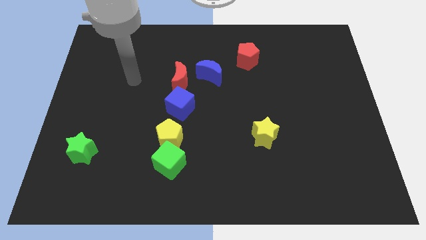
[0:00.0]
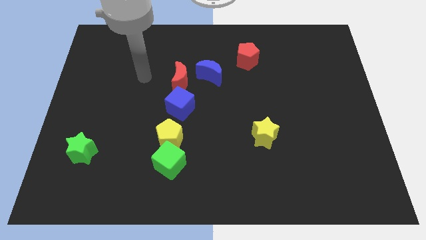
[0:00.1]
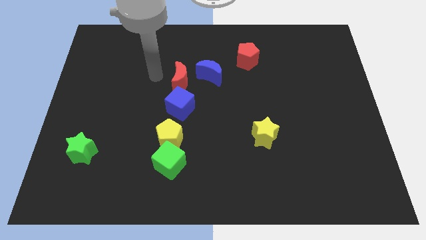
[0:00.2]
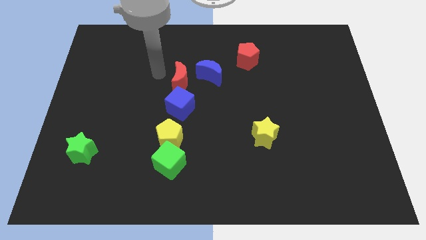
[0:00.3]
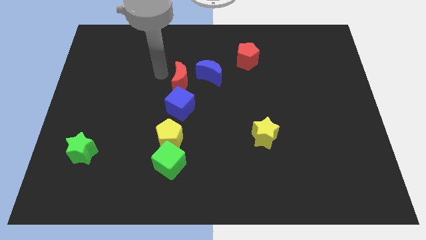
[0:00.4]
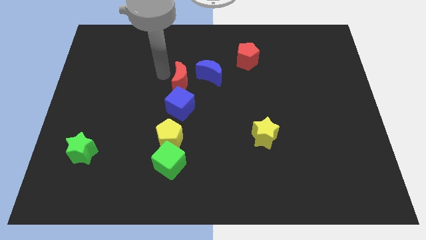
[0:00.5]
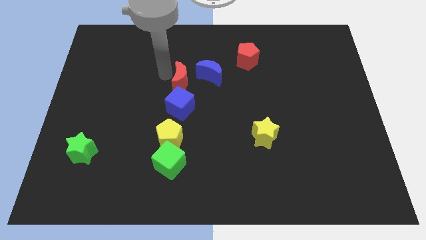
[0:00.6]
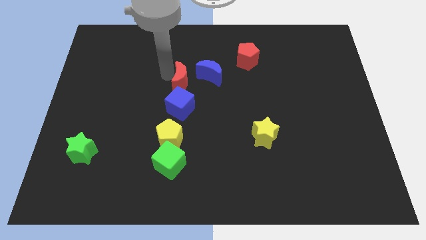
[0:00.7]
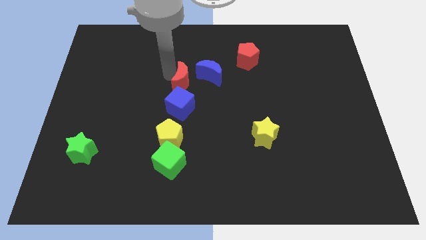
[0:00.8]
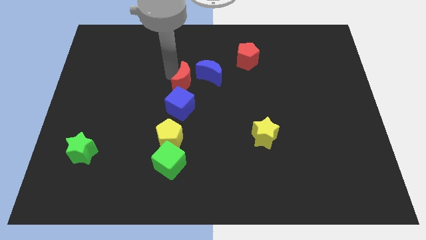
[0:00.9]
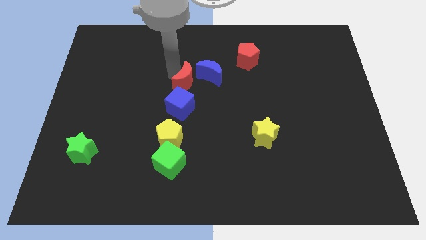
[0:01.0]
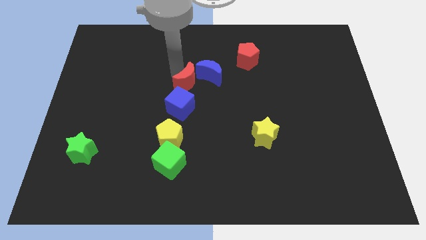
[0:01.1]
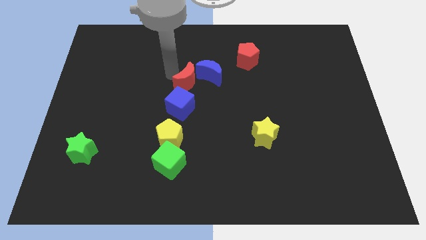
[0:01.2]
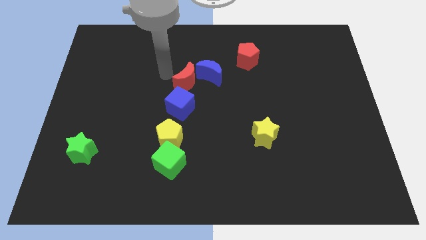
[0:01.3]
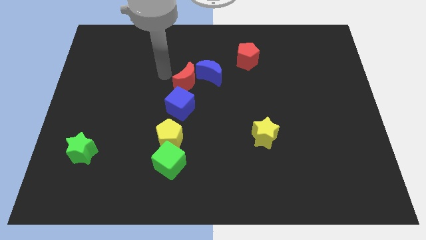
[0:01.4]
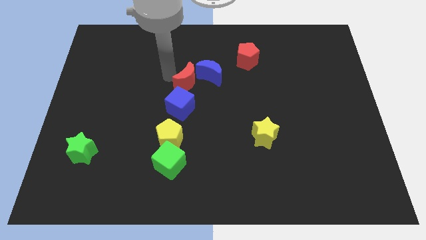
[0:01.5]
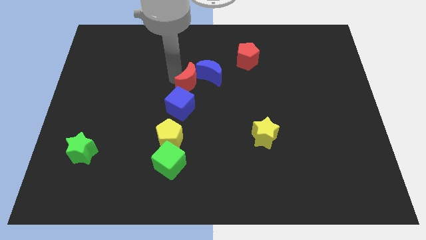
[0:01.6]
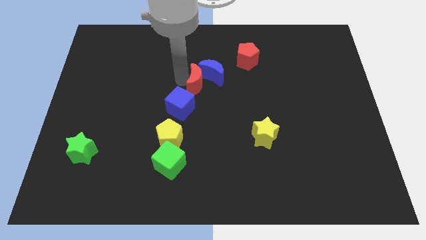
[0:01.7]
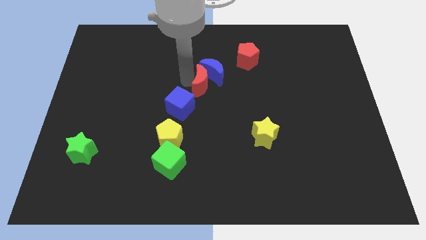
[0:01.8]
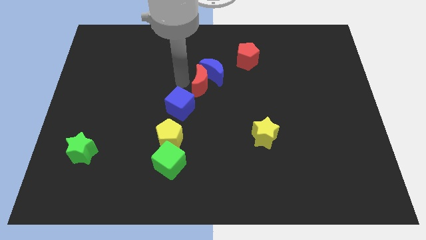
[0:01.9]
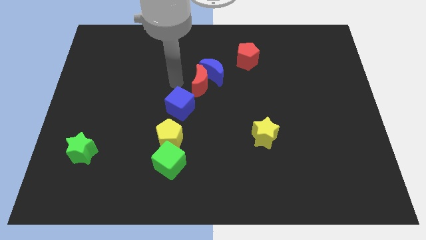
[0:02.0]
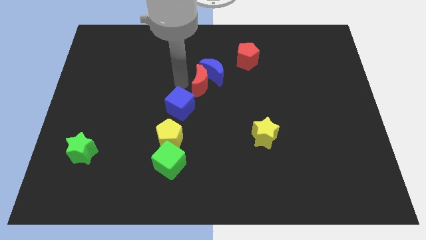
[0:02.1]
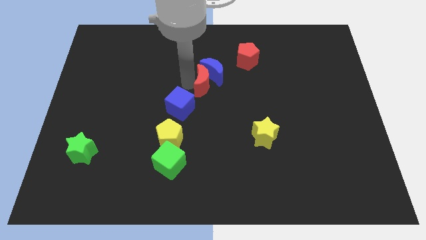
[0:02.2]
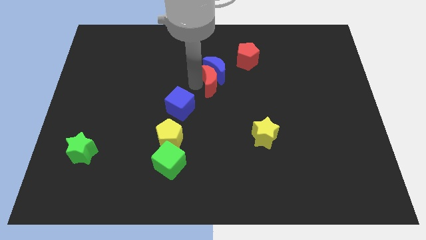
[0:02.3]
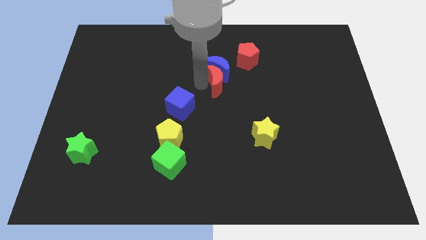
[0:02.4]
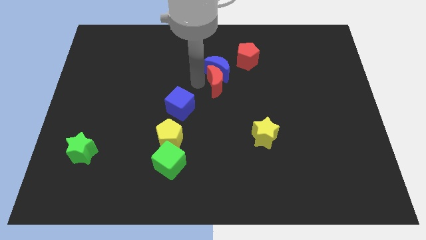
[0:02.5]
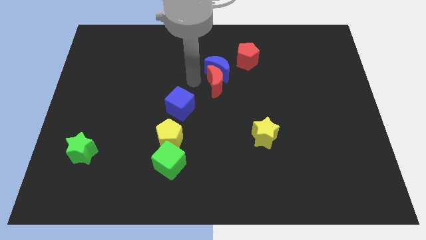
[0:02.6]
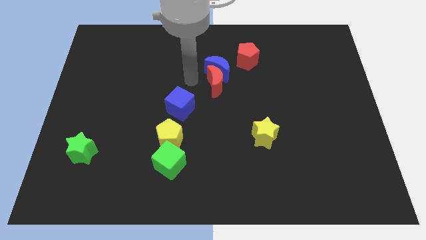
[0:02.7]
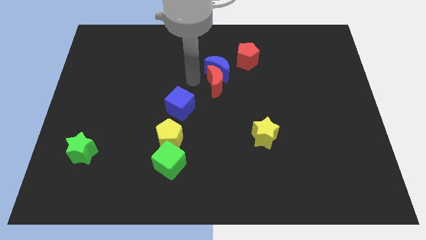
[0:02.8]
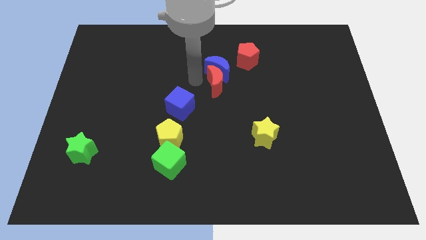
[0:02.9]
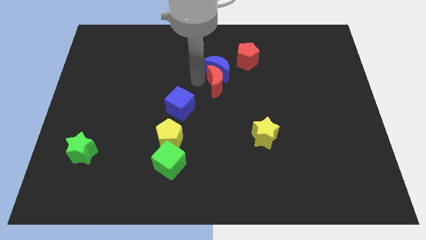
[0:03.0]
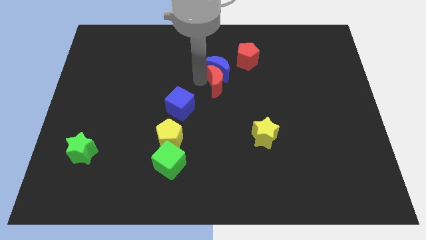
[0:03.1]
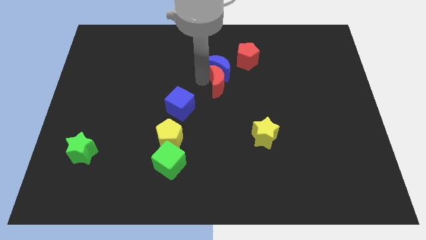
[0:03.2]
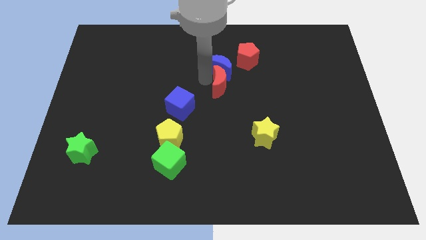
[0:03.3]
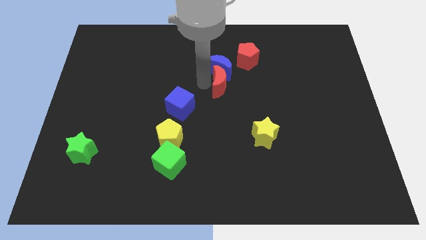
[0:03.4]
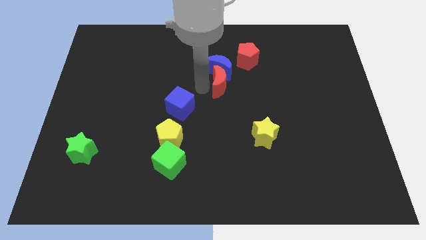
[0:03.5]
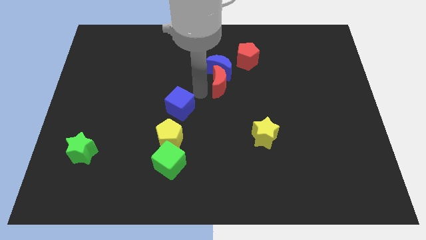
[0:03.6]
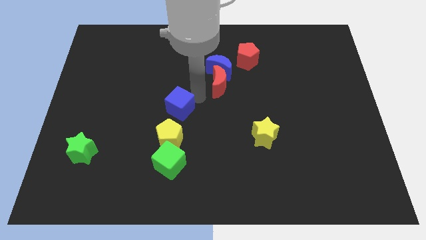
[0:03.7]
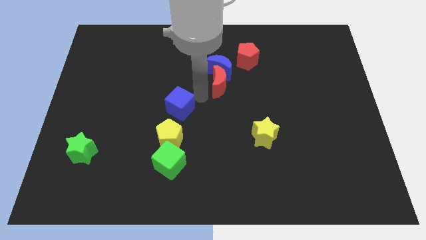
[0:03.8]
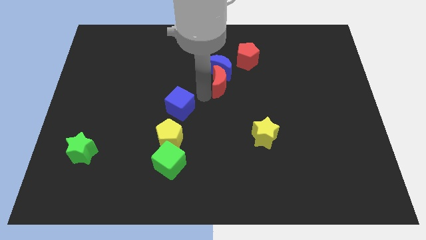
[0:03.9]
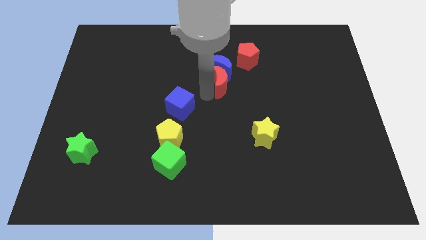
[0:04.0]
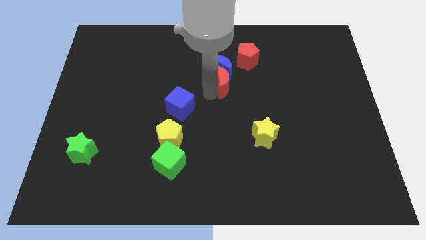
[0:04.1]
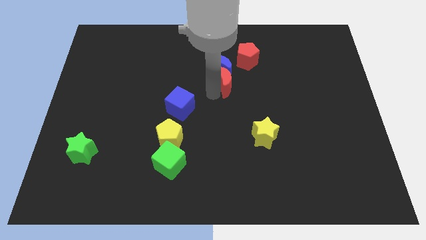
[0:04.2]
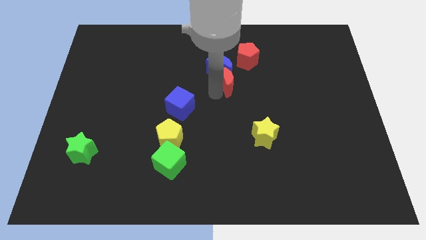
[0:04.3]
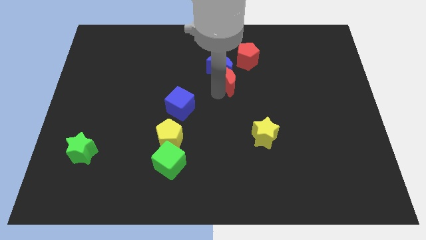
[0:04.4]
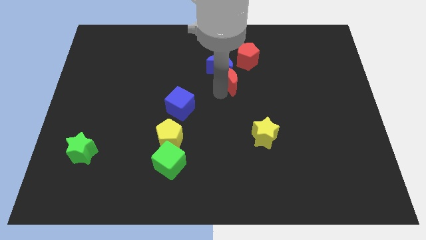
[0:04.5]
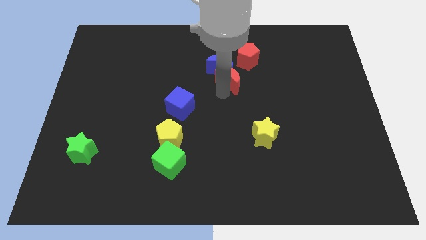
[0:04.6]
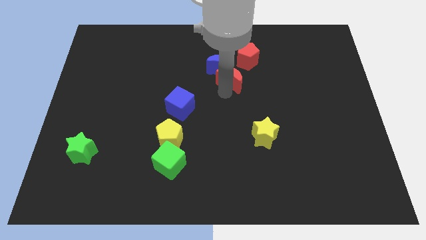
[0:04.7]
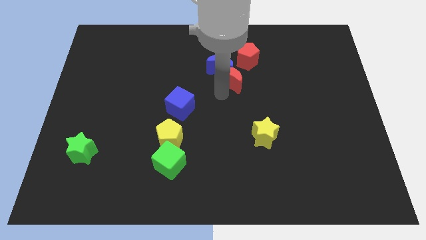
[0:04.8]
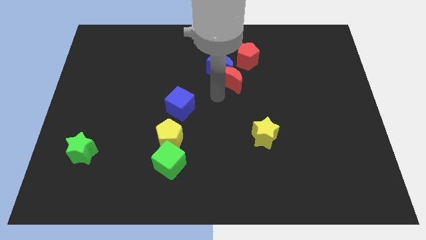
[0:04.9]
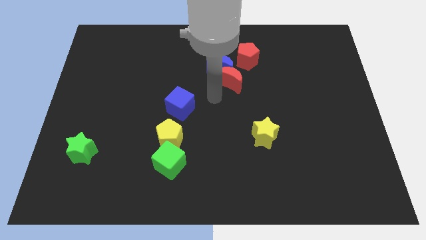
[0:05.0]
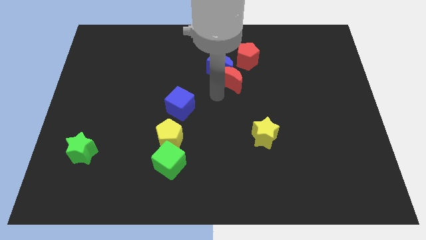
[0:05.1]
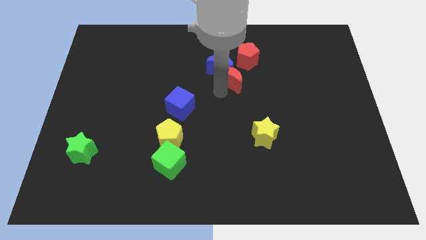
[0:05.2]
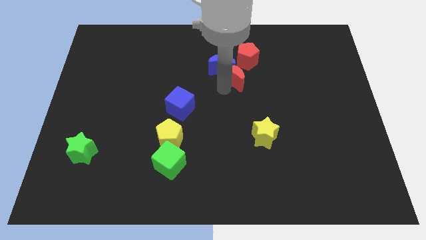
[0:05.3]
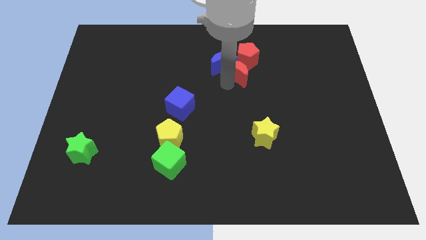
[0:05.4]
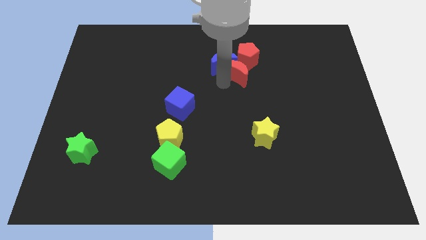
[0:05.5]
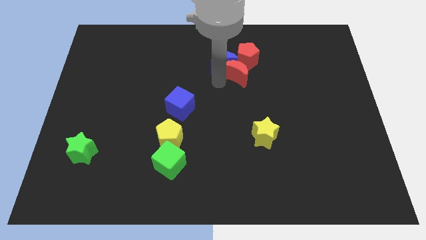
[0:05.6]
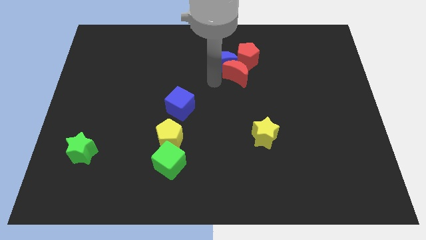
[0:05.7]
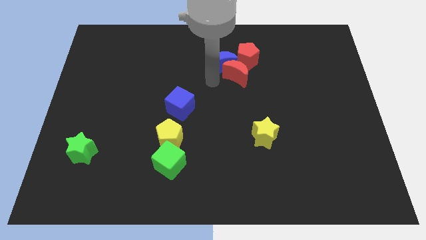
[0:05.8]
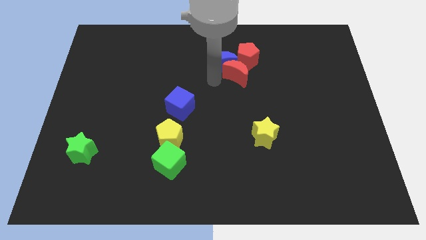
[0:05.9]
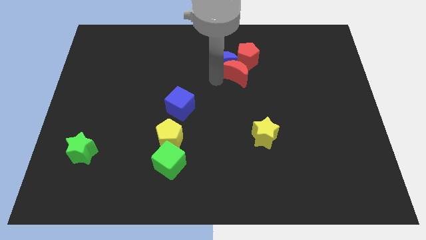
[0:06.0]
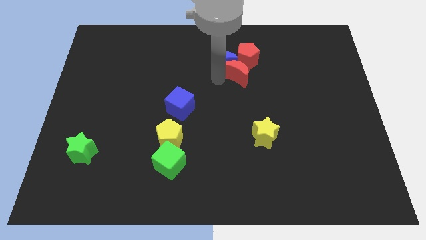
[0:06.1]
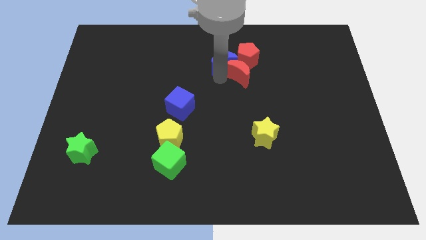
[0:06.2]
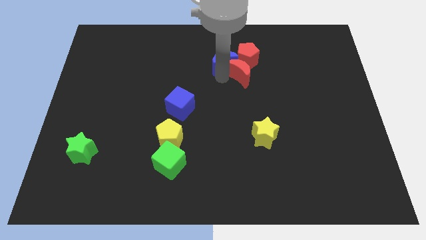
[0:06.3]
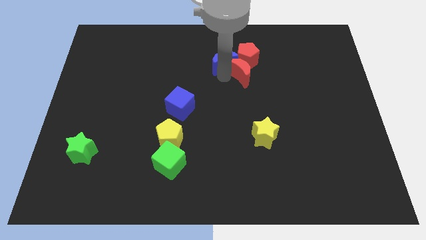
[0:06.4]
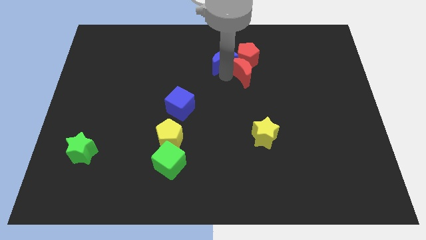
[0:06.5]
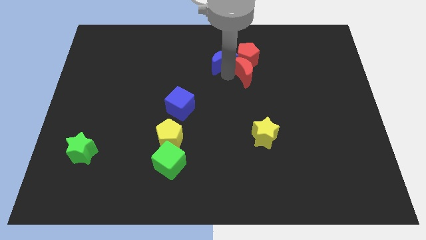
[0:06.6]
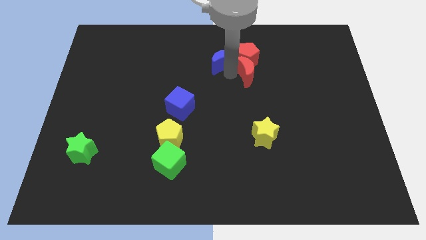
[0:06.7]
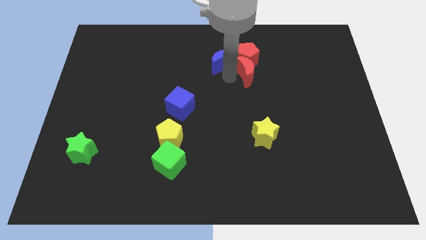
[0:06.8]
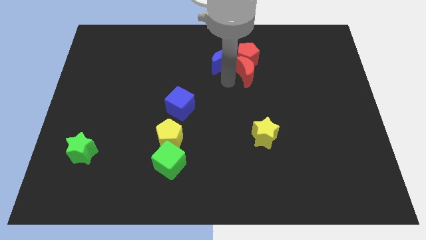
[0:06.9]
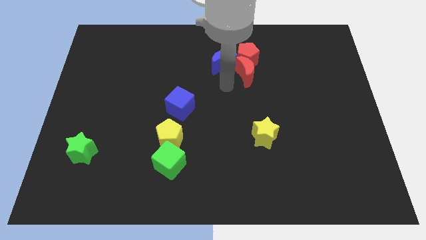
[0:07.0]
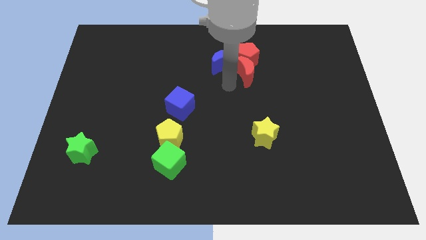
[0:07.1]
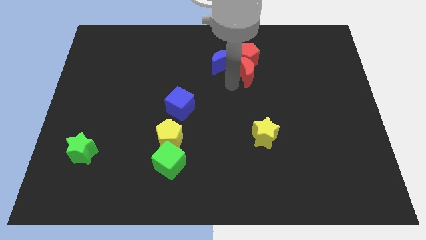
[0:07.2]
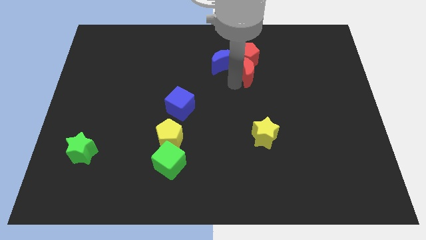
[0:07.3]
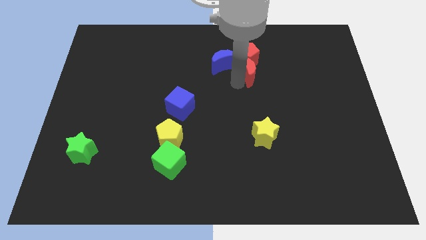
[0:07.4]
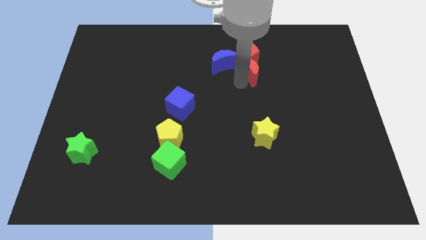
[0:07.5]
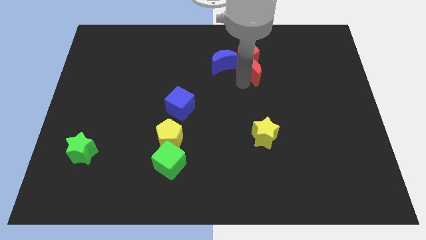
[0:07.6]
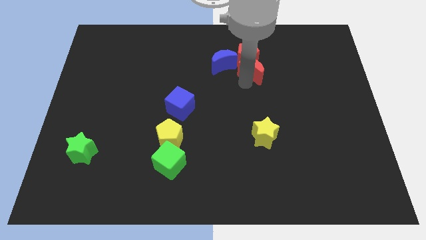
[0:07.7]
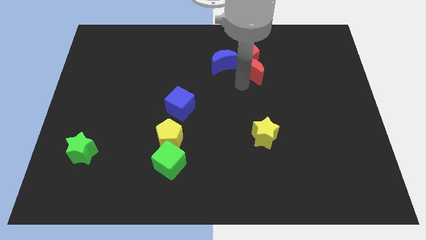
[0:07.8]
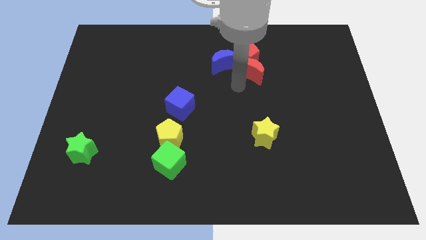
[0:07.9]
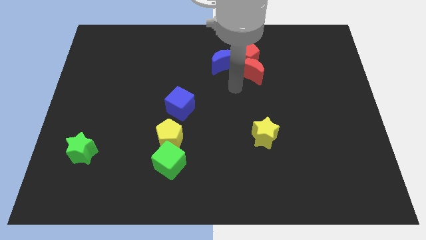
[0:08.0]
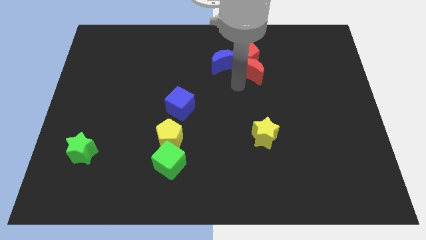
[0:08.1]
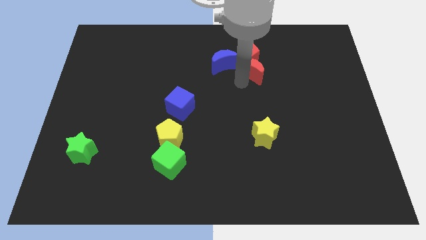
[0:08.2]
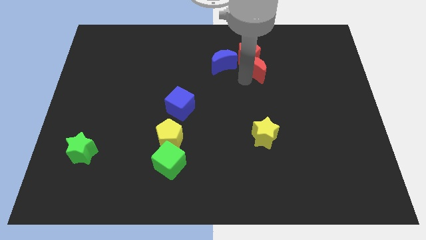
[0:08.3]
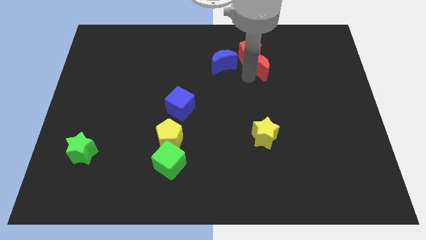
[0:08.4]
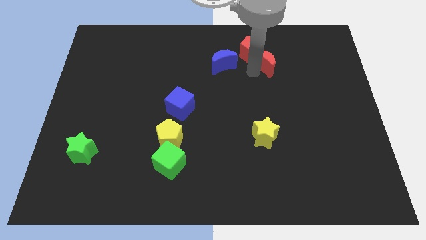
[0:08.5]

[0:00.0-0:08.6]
slide the red moon to the right of the red pentagon
